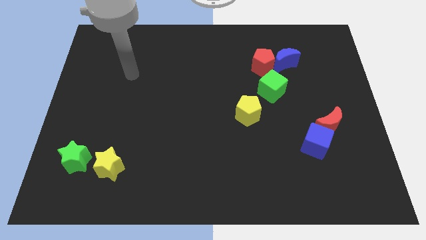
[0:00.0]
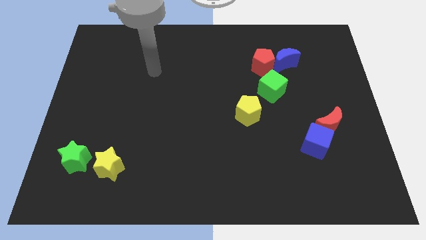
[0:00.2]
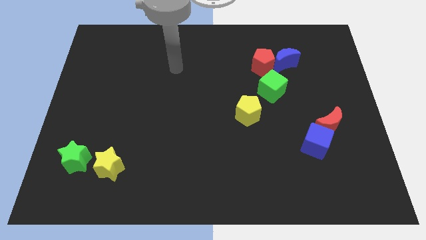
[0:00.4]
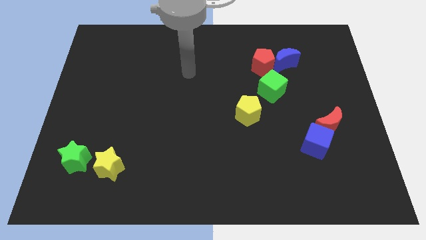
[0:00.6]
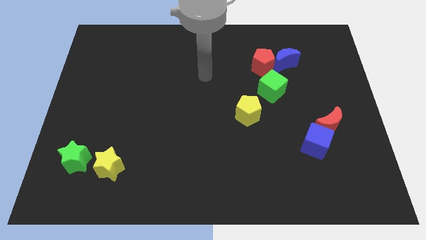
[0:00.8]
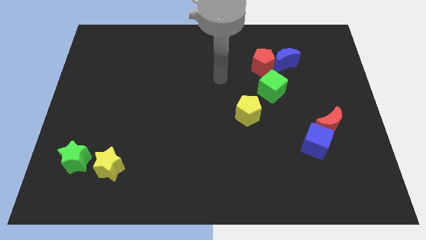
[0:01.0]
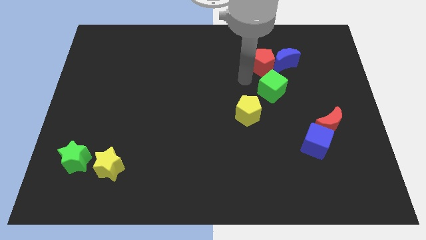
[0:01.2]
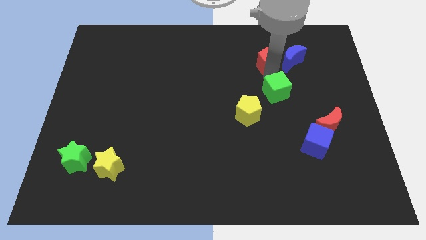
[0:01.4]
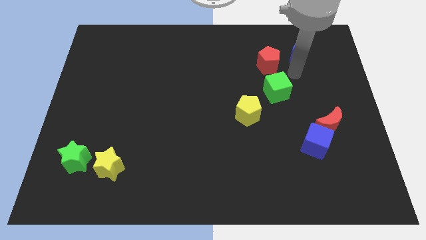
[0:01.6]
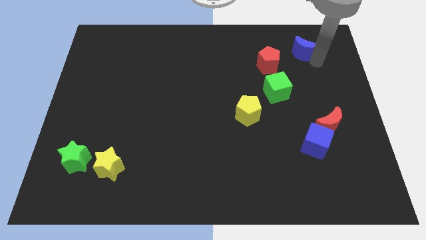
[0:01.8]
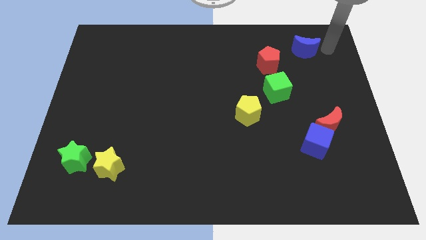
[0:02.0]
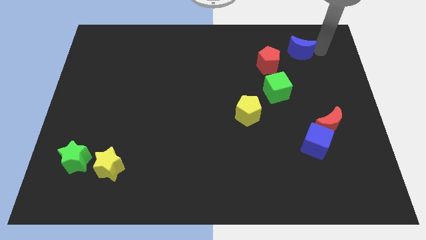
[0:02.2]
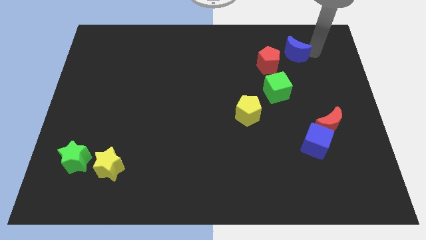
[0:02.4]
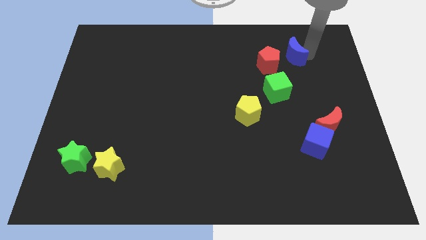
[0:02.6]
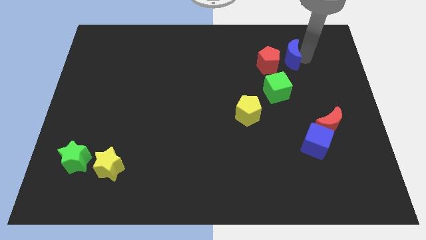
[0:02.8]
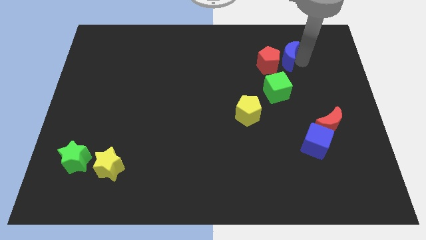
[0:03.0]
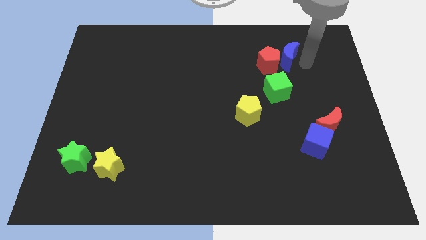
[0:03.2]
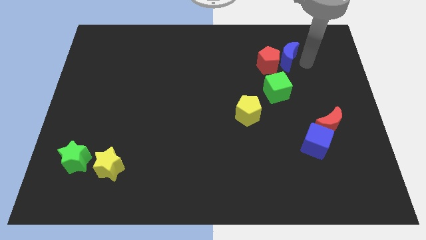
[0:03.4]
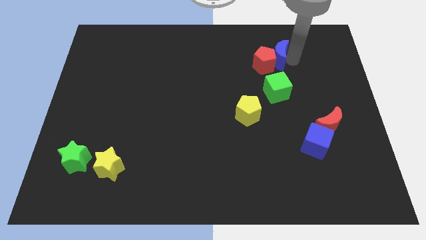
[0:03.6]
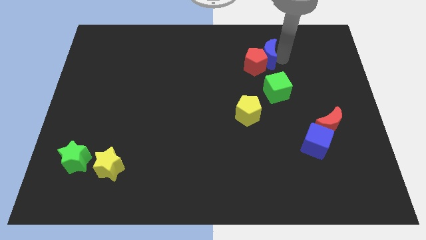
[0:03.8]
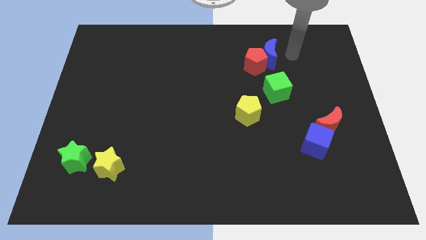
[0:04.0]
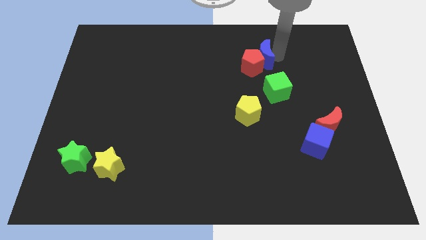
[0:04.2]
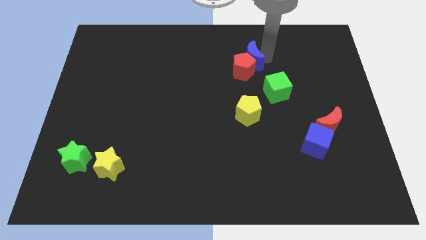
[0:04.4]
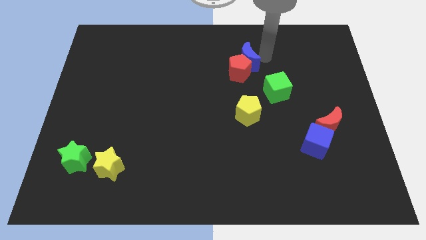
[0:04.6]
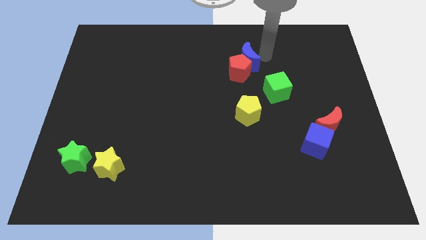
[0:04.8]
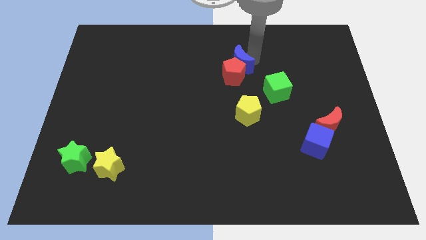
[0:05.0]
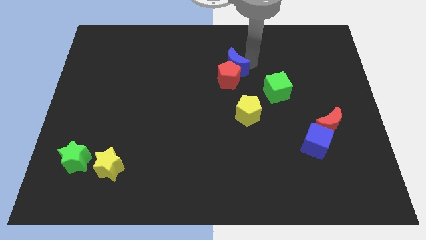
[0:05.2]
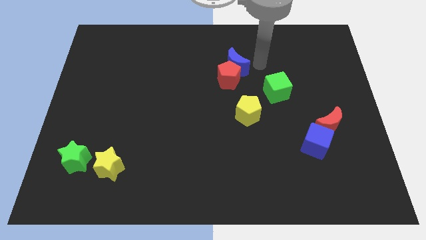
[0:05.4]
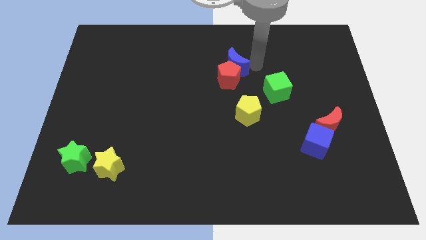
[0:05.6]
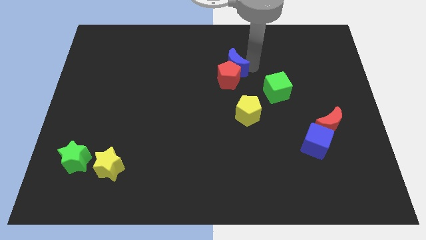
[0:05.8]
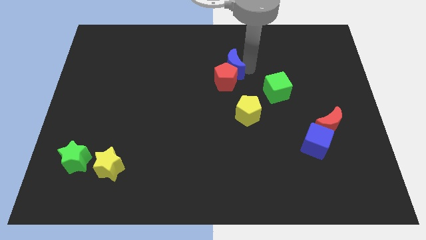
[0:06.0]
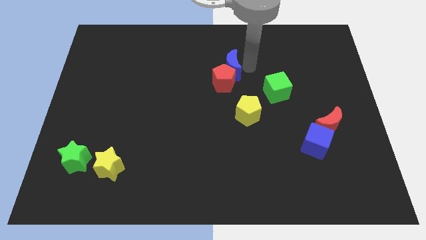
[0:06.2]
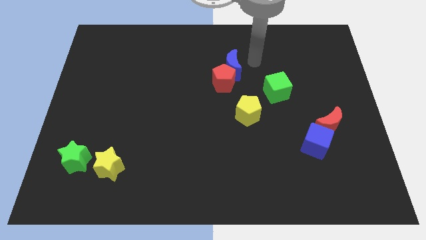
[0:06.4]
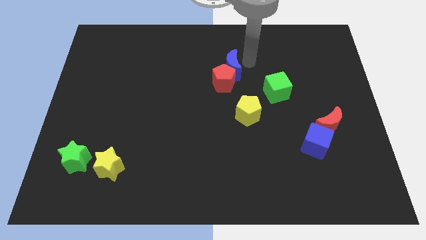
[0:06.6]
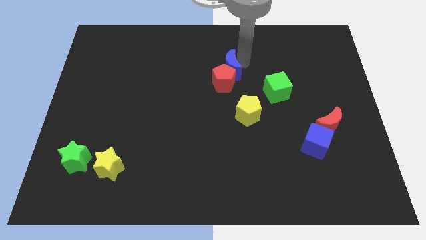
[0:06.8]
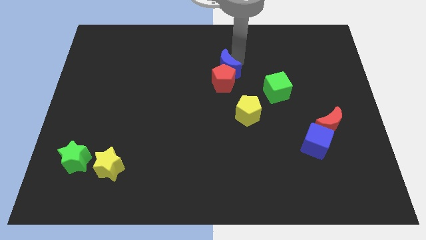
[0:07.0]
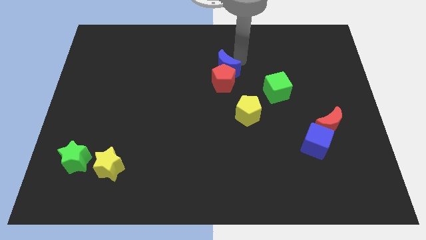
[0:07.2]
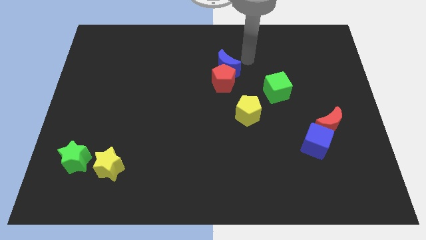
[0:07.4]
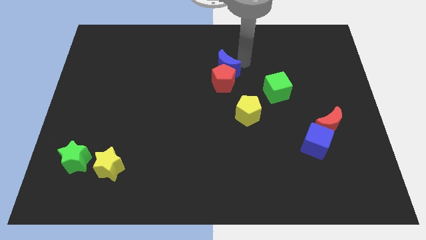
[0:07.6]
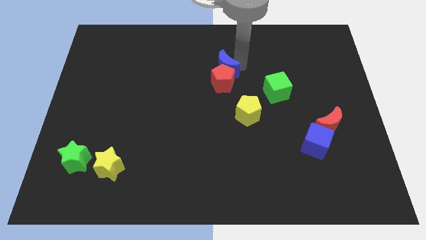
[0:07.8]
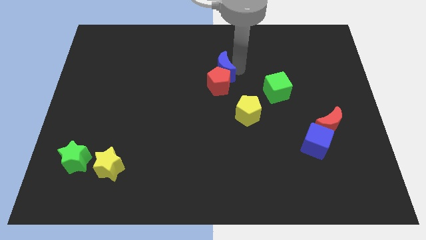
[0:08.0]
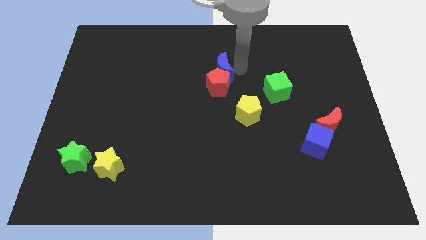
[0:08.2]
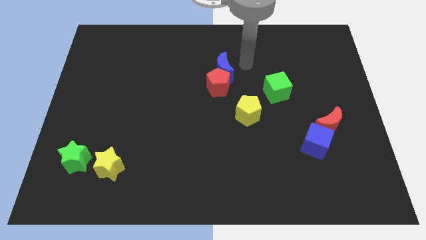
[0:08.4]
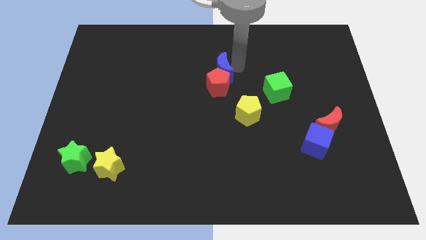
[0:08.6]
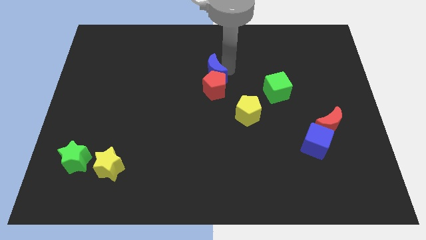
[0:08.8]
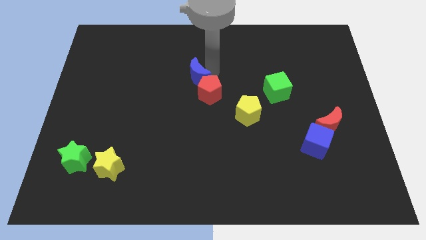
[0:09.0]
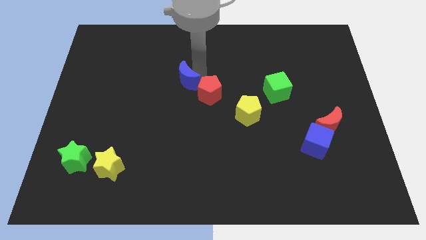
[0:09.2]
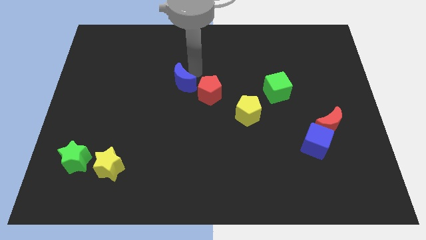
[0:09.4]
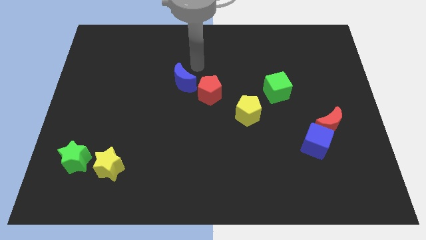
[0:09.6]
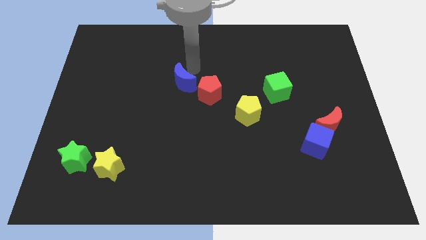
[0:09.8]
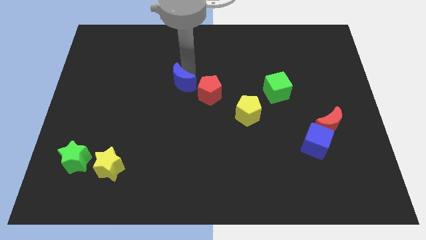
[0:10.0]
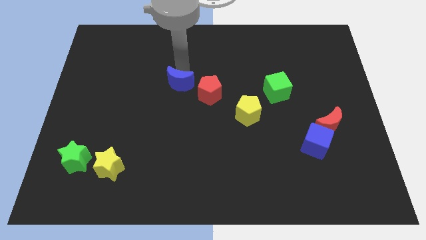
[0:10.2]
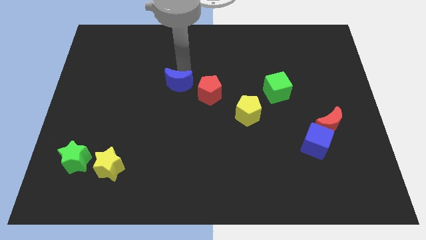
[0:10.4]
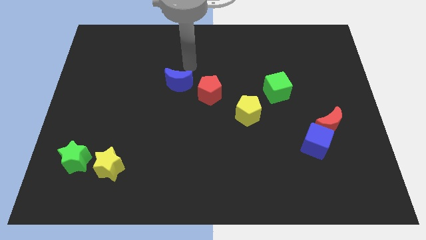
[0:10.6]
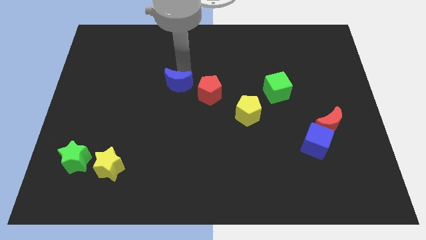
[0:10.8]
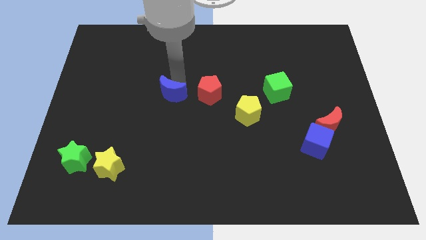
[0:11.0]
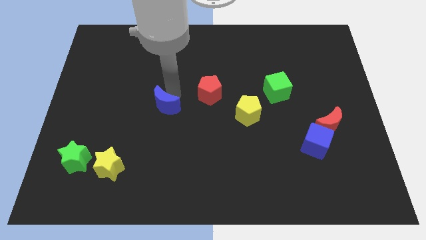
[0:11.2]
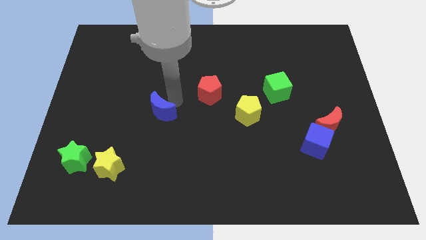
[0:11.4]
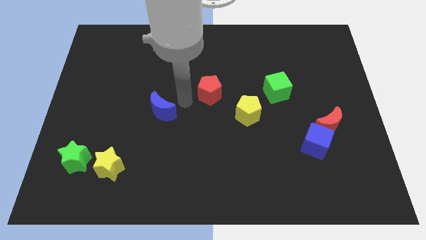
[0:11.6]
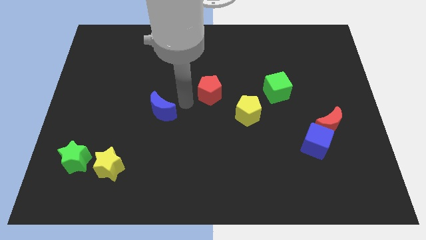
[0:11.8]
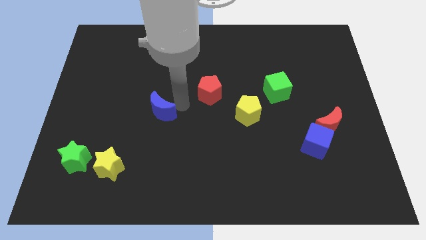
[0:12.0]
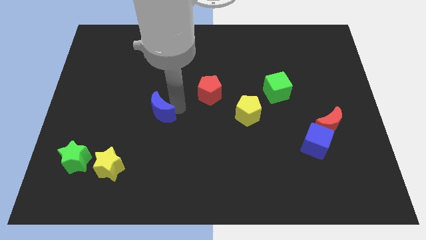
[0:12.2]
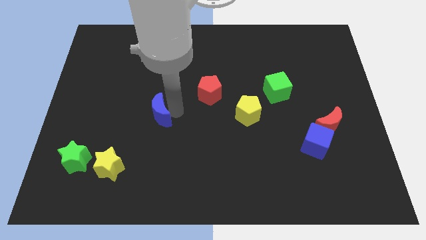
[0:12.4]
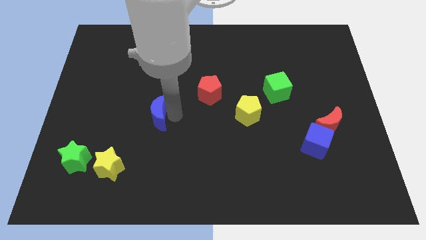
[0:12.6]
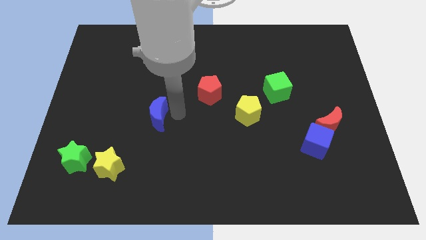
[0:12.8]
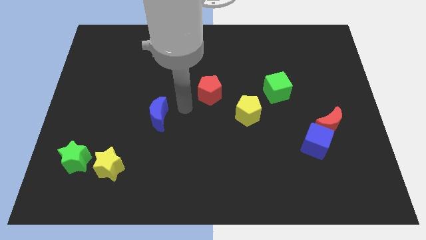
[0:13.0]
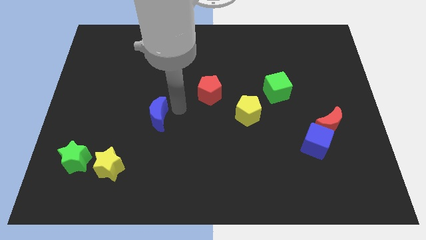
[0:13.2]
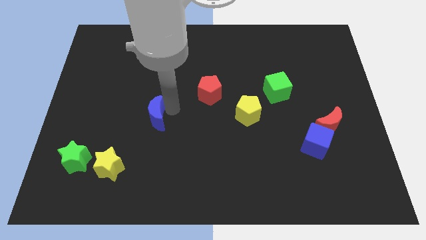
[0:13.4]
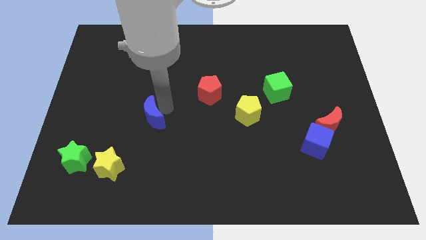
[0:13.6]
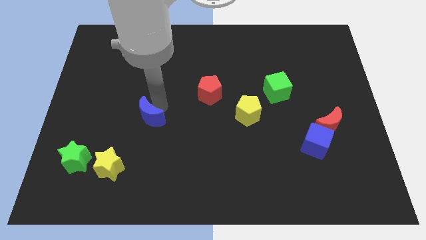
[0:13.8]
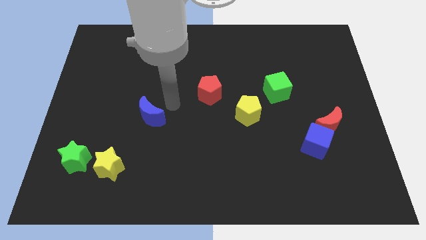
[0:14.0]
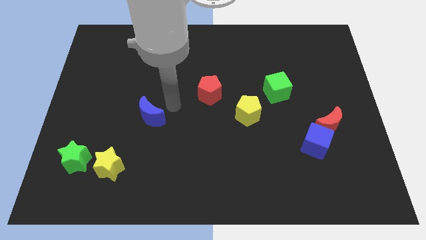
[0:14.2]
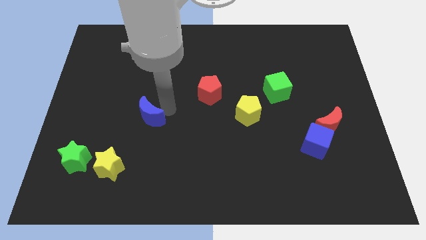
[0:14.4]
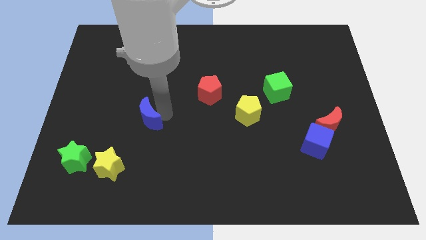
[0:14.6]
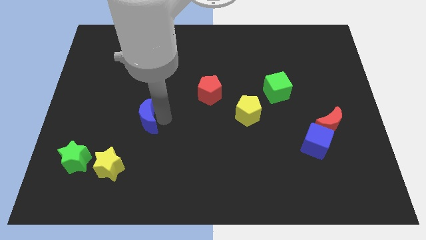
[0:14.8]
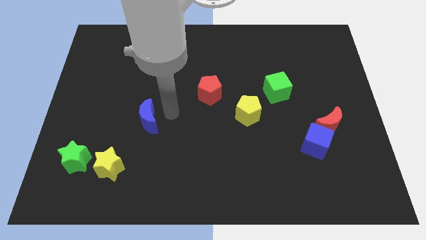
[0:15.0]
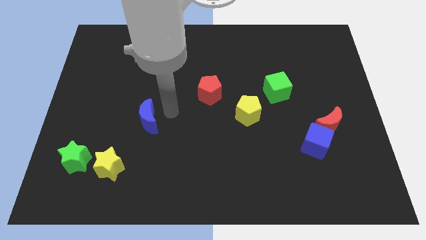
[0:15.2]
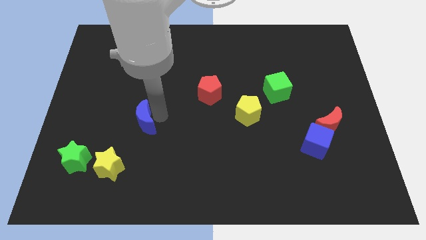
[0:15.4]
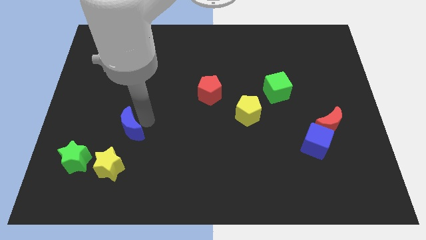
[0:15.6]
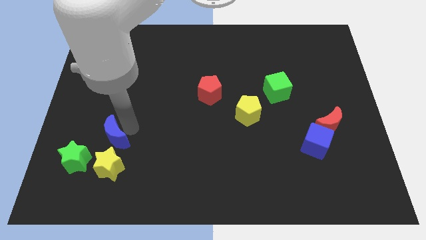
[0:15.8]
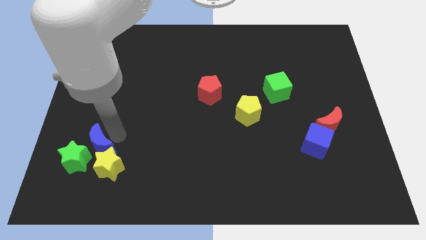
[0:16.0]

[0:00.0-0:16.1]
push the blue moon close to the green star
